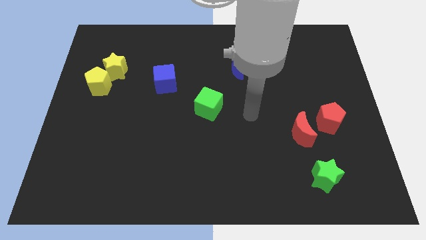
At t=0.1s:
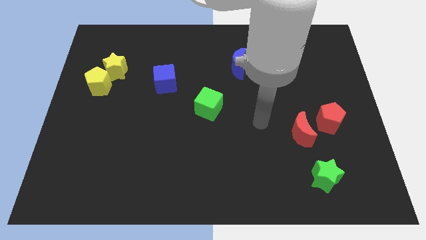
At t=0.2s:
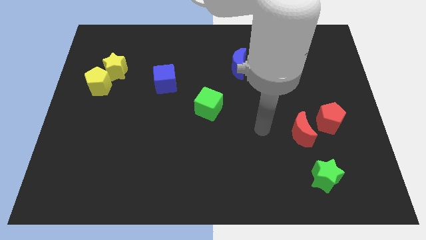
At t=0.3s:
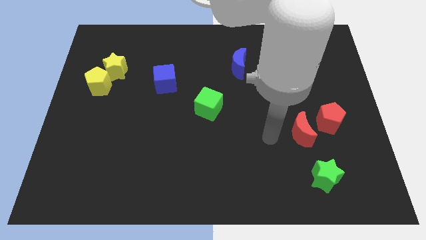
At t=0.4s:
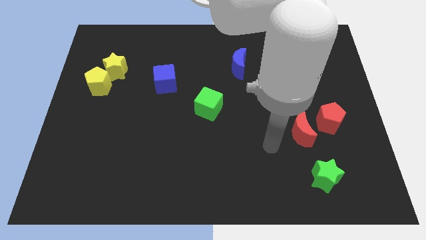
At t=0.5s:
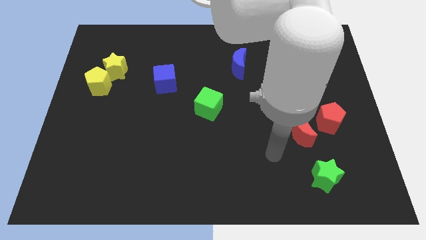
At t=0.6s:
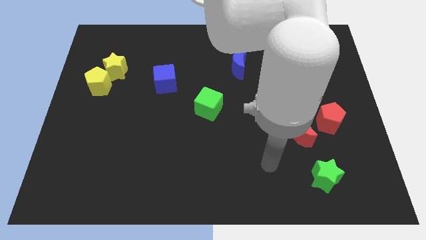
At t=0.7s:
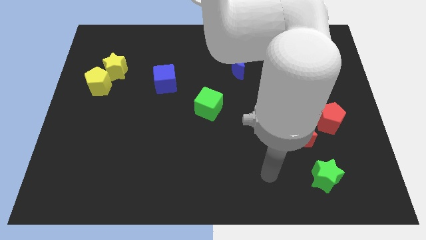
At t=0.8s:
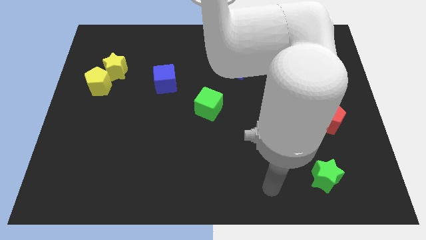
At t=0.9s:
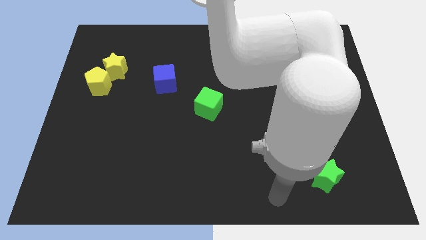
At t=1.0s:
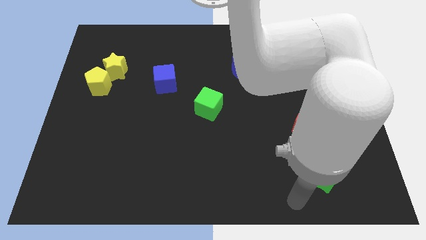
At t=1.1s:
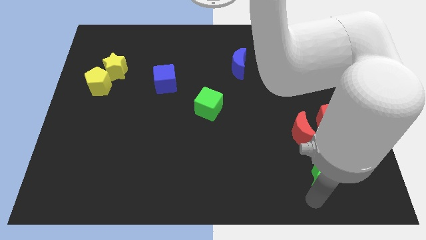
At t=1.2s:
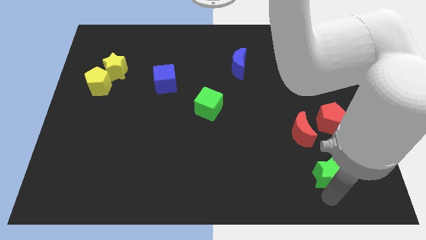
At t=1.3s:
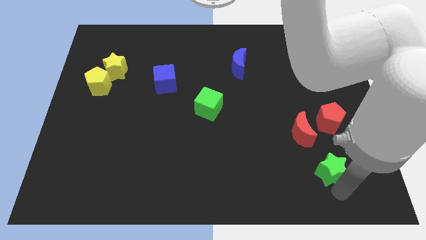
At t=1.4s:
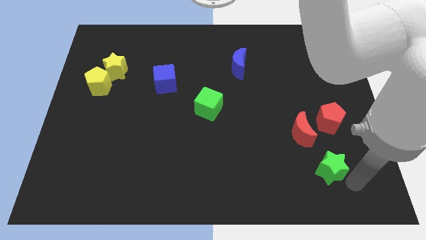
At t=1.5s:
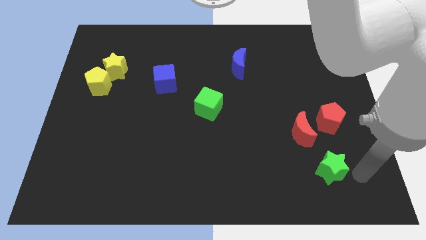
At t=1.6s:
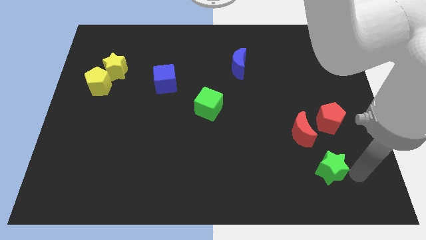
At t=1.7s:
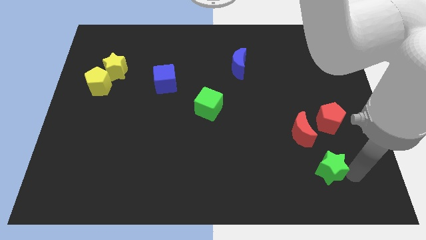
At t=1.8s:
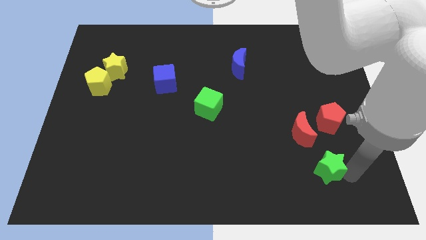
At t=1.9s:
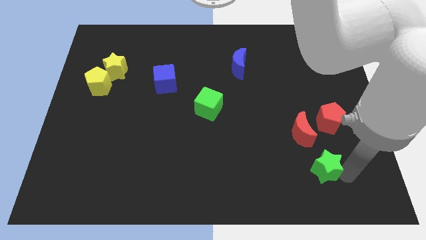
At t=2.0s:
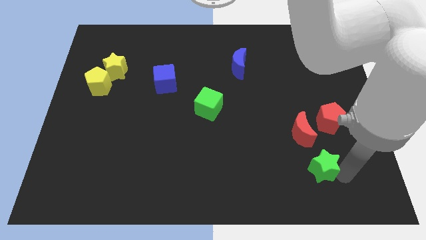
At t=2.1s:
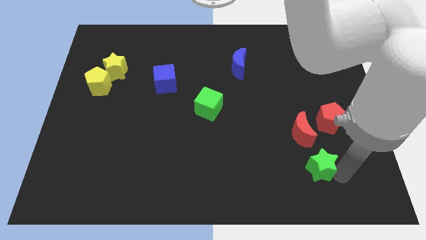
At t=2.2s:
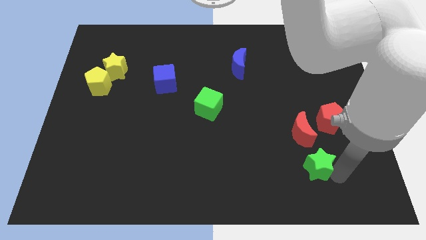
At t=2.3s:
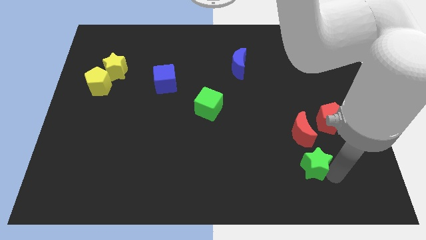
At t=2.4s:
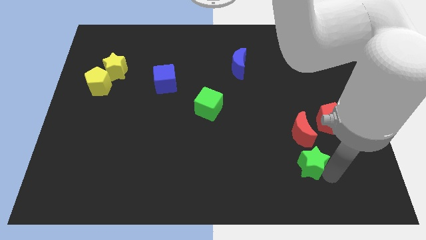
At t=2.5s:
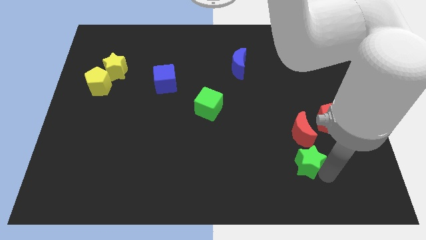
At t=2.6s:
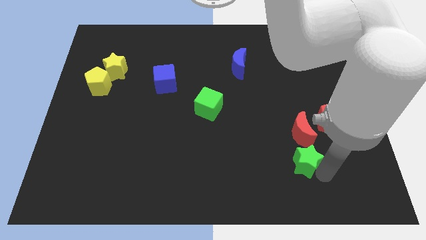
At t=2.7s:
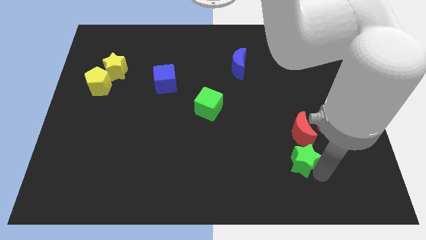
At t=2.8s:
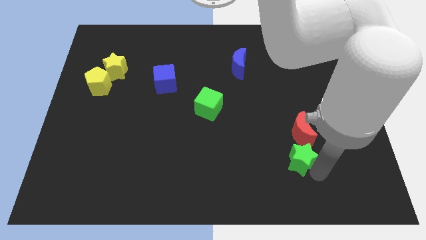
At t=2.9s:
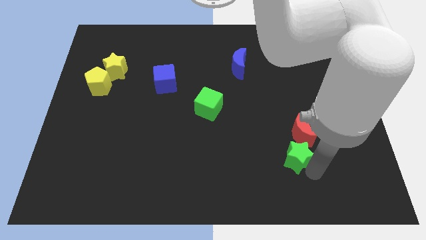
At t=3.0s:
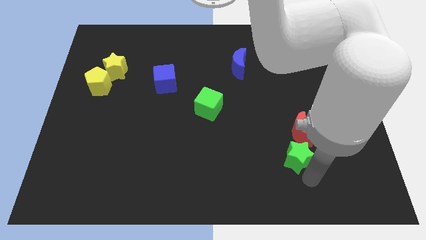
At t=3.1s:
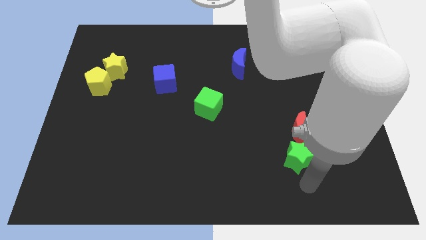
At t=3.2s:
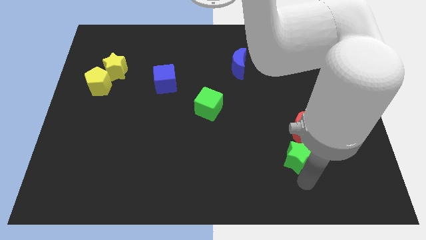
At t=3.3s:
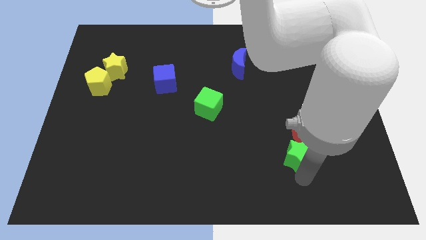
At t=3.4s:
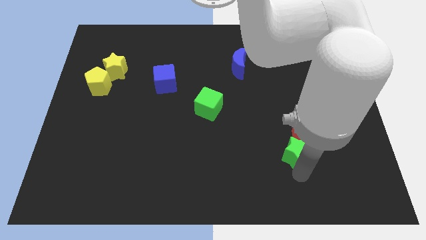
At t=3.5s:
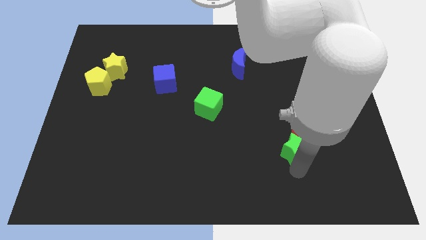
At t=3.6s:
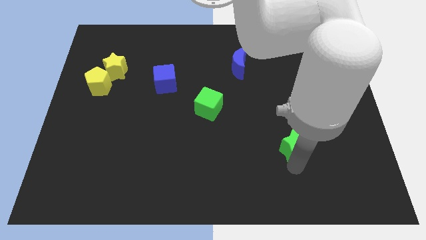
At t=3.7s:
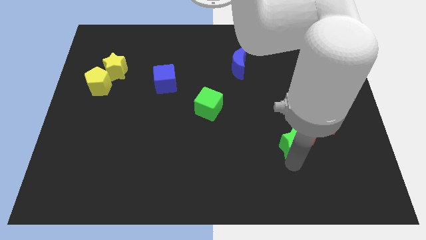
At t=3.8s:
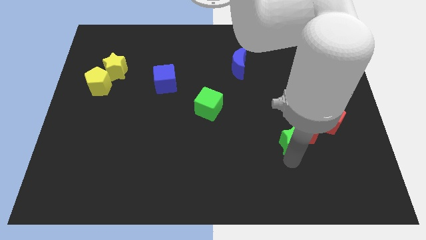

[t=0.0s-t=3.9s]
slightly slide the green star up

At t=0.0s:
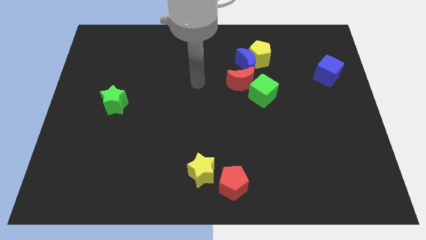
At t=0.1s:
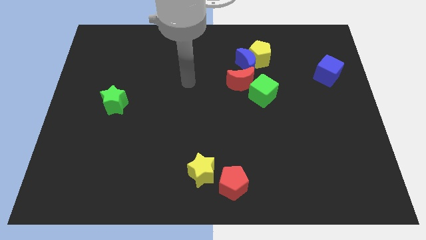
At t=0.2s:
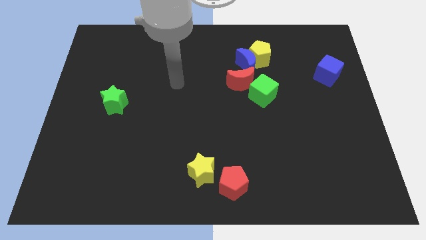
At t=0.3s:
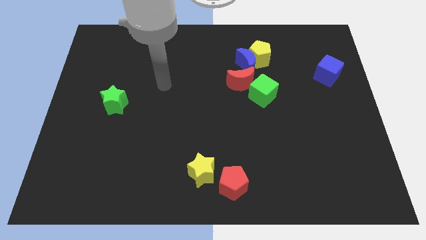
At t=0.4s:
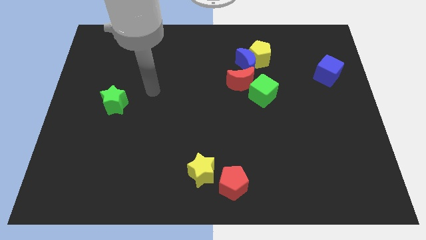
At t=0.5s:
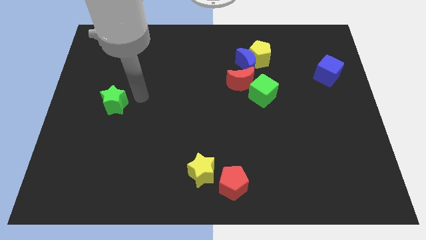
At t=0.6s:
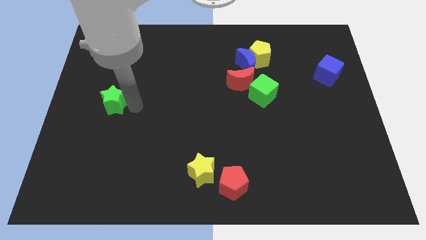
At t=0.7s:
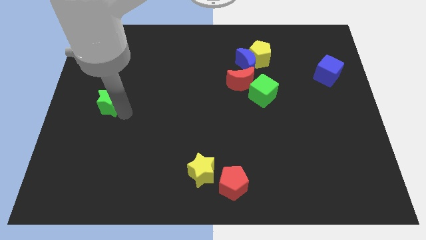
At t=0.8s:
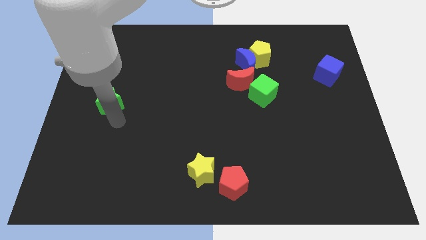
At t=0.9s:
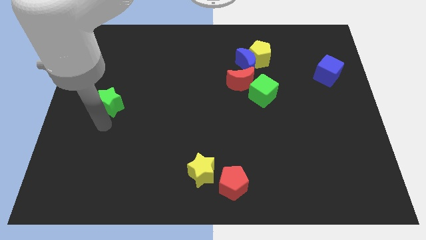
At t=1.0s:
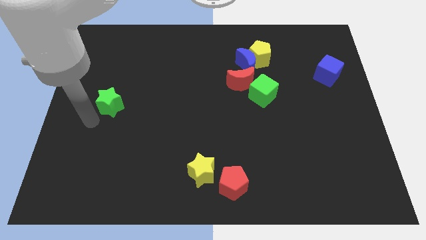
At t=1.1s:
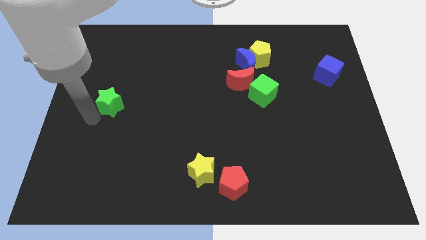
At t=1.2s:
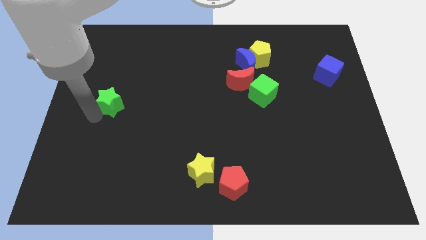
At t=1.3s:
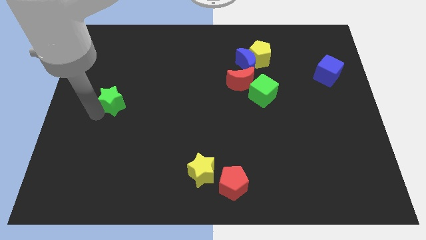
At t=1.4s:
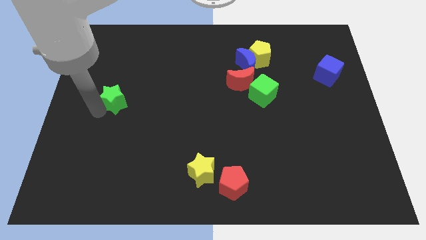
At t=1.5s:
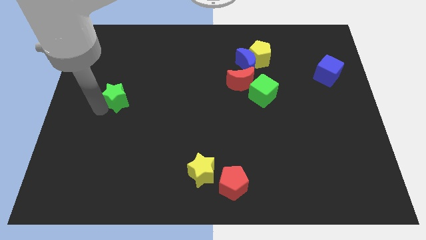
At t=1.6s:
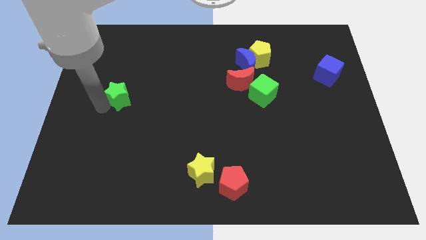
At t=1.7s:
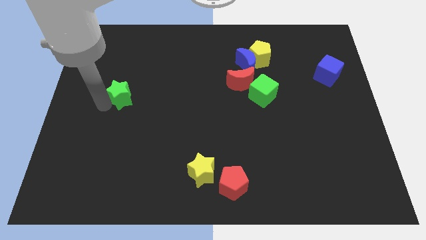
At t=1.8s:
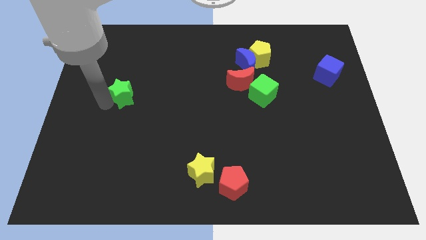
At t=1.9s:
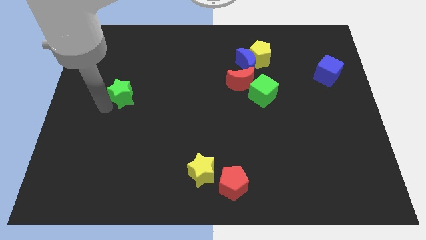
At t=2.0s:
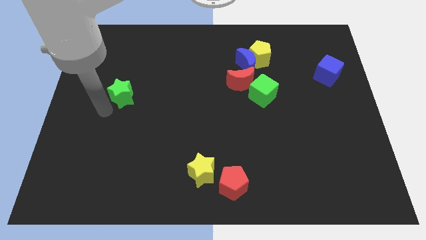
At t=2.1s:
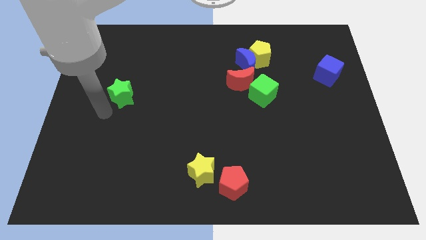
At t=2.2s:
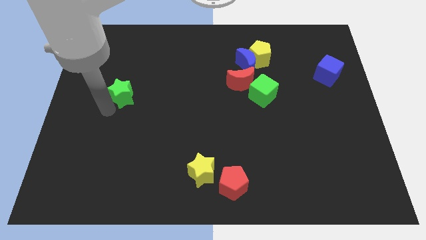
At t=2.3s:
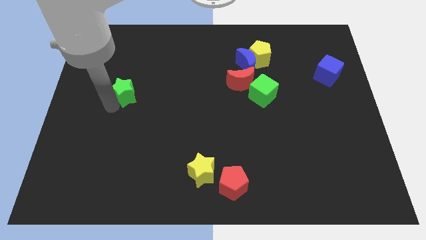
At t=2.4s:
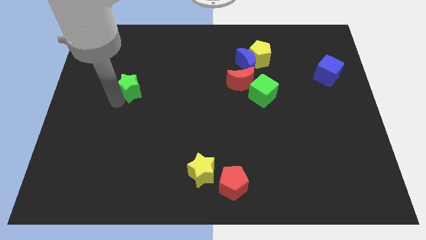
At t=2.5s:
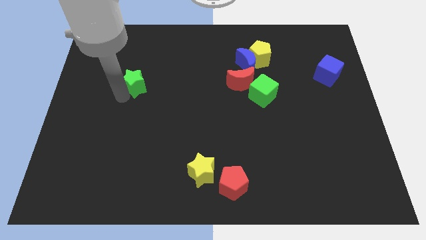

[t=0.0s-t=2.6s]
slide the green star diagonally up and right slightly

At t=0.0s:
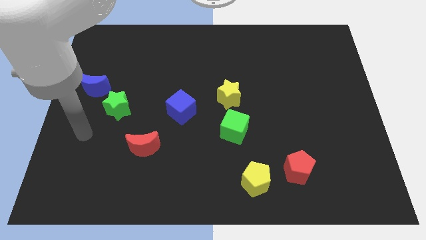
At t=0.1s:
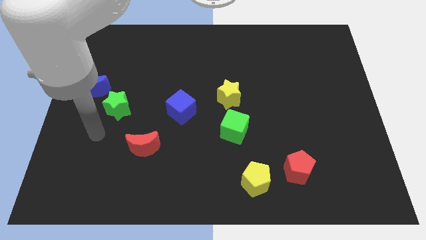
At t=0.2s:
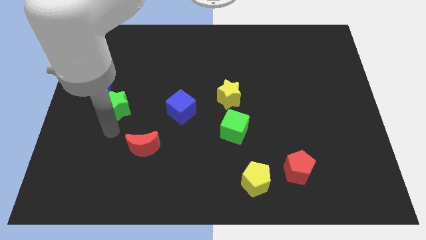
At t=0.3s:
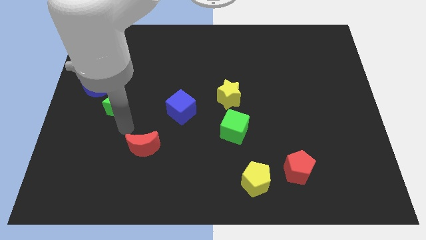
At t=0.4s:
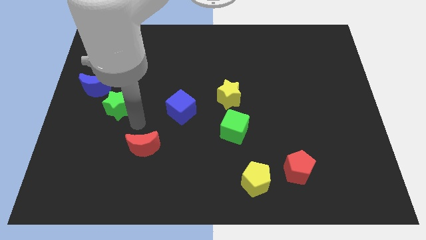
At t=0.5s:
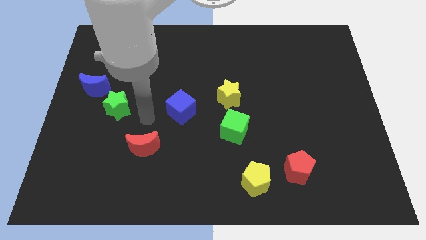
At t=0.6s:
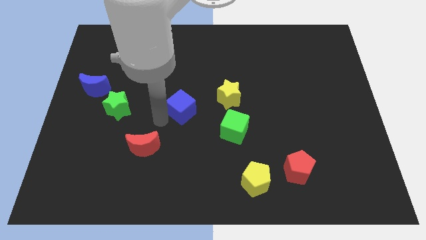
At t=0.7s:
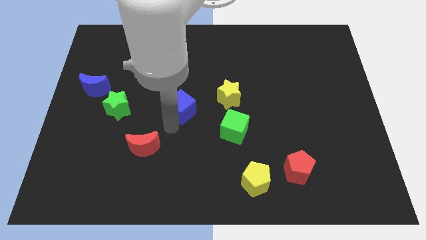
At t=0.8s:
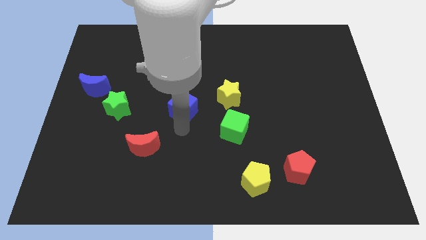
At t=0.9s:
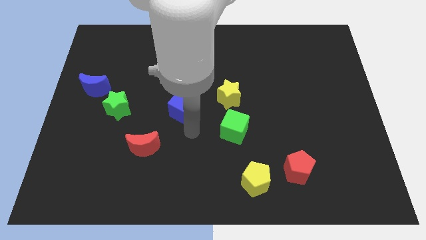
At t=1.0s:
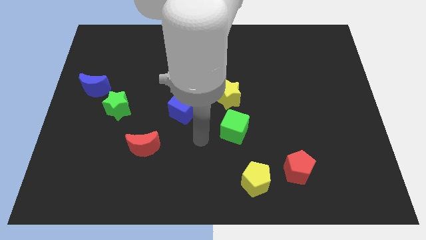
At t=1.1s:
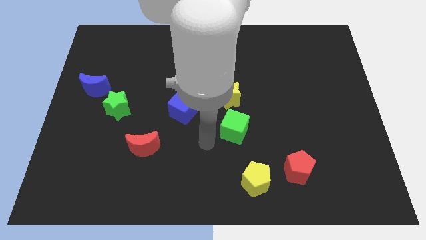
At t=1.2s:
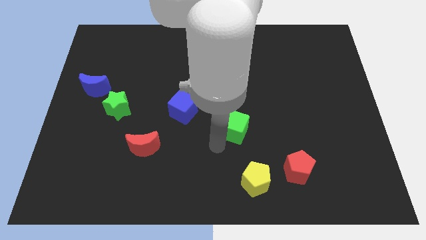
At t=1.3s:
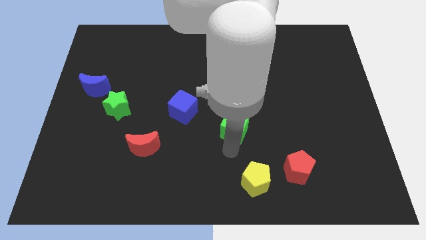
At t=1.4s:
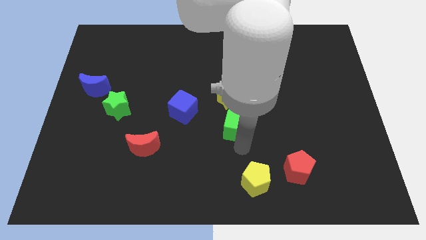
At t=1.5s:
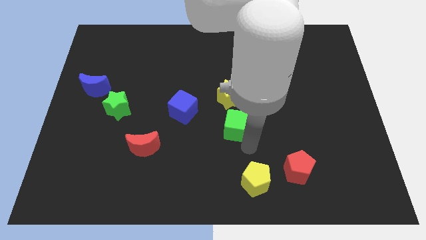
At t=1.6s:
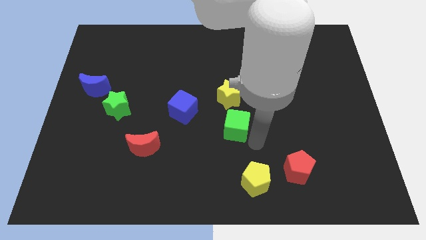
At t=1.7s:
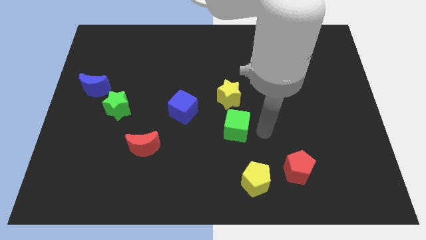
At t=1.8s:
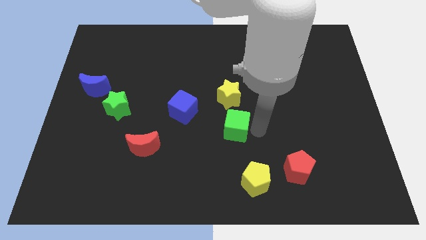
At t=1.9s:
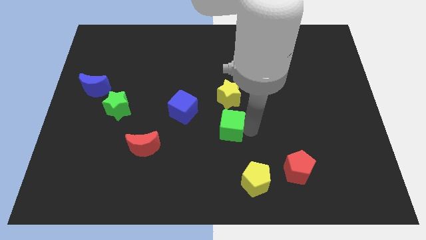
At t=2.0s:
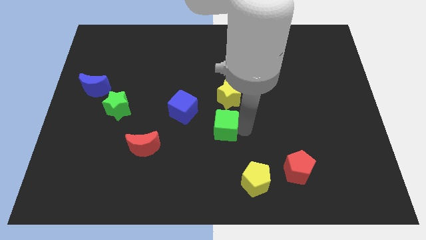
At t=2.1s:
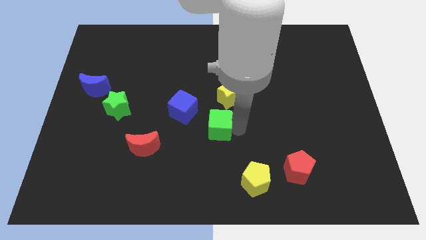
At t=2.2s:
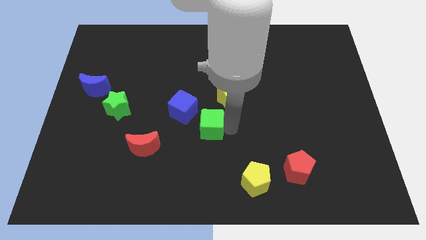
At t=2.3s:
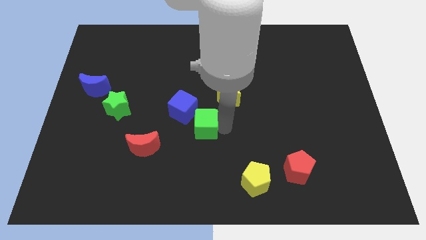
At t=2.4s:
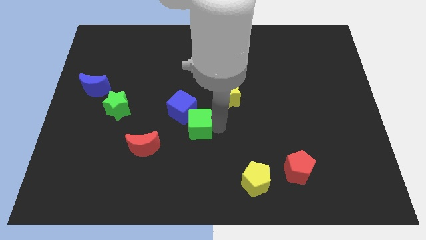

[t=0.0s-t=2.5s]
slightly push the green cube left
